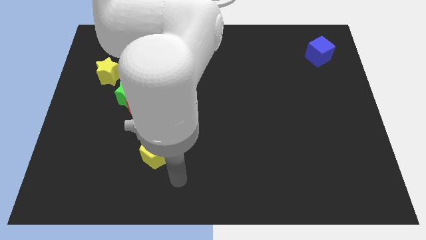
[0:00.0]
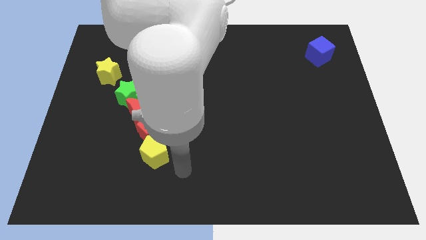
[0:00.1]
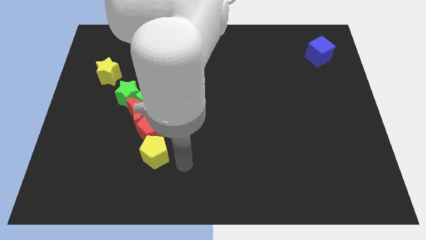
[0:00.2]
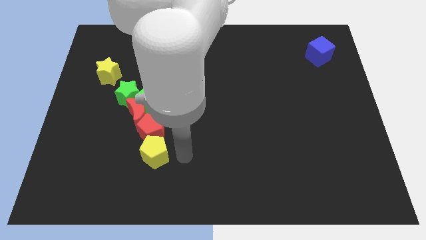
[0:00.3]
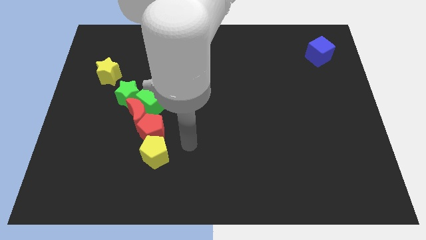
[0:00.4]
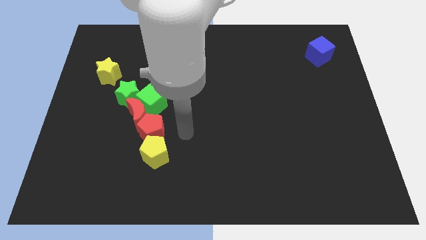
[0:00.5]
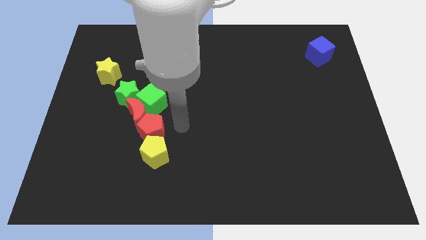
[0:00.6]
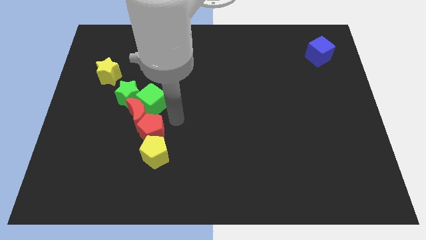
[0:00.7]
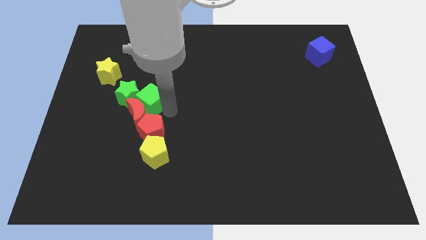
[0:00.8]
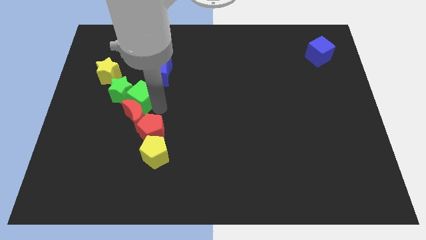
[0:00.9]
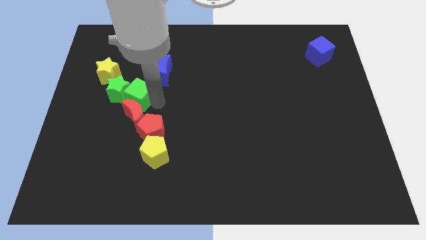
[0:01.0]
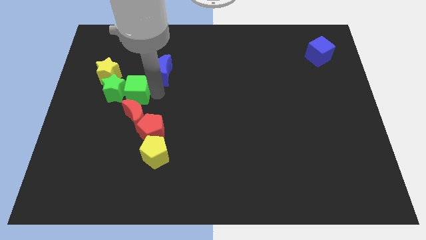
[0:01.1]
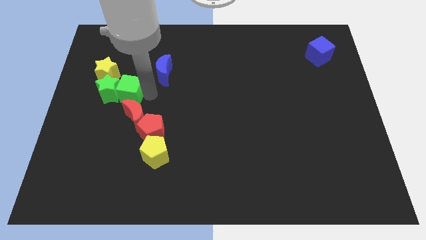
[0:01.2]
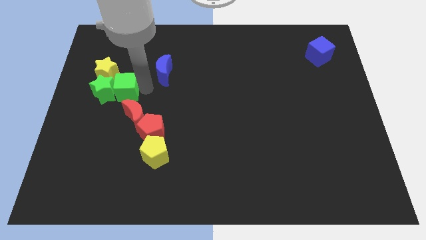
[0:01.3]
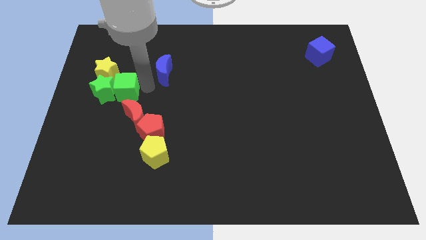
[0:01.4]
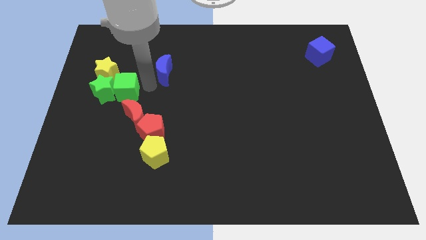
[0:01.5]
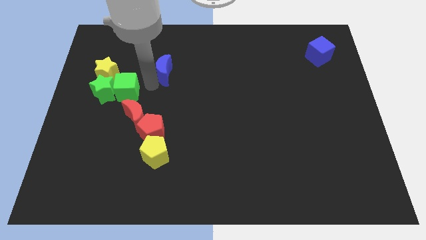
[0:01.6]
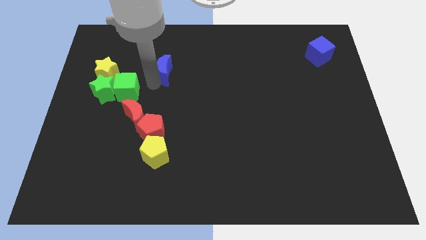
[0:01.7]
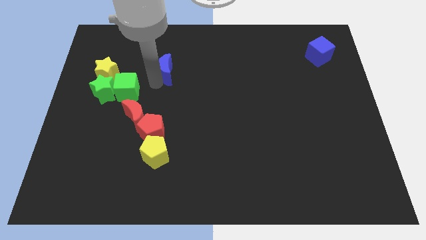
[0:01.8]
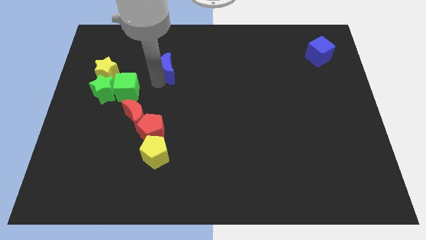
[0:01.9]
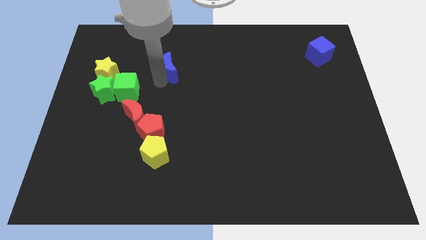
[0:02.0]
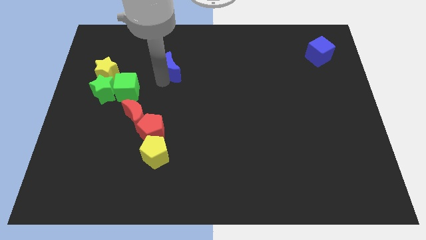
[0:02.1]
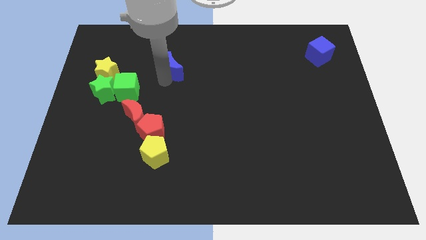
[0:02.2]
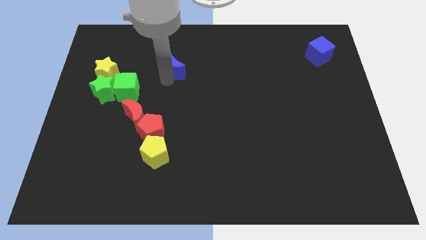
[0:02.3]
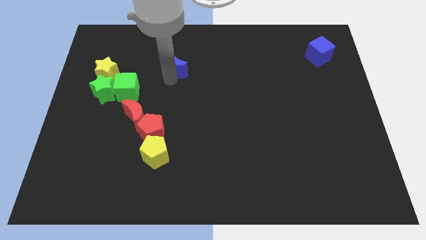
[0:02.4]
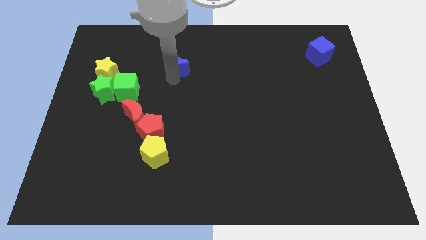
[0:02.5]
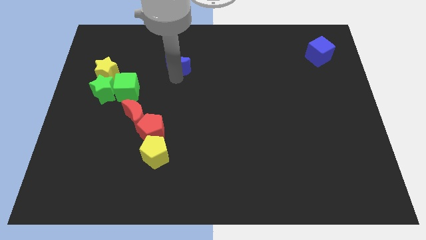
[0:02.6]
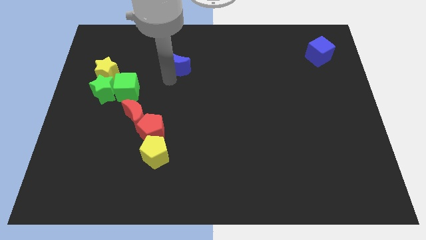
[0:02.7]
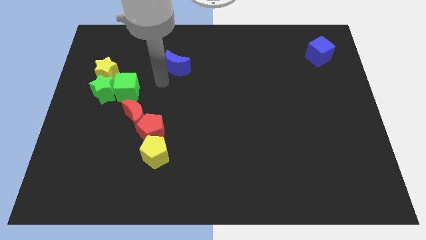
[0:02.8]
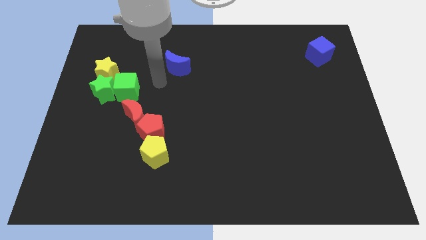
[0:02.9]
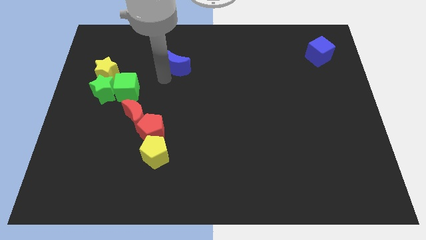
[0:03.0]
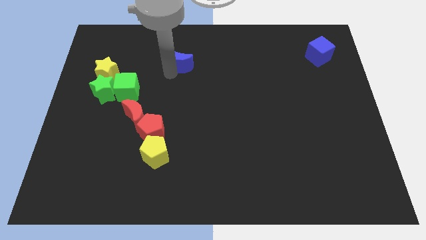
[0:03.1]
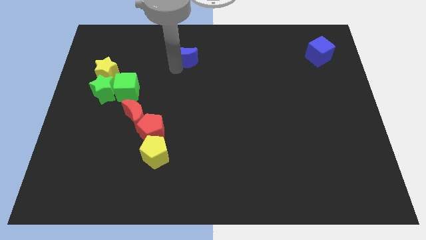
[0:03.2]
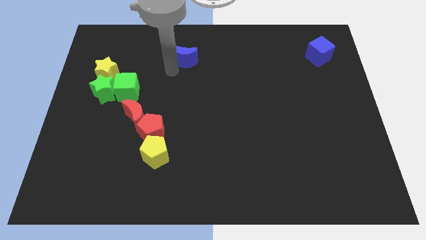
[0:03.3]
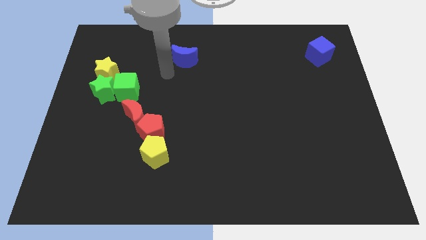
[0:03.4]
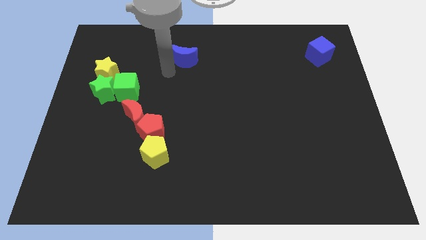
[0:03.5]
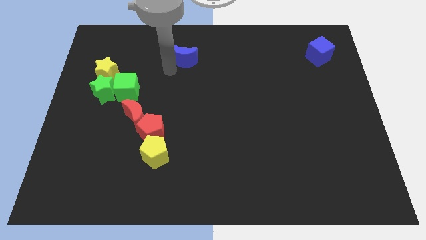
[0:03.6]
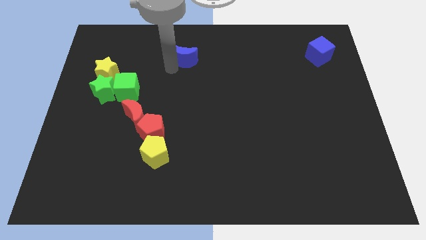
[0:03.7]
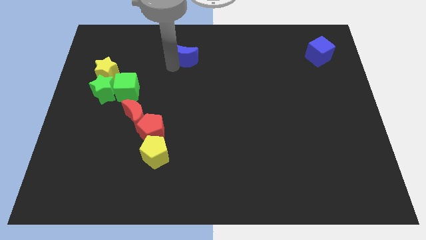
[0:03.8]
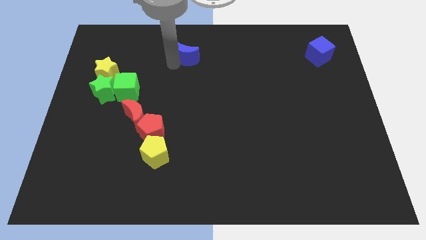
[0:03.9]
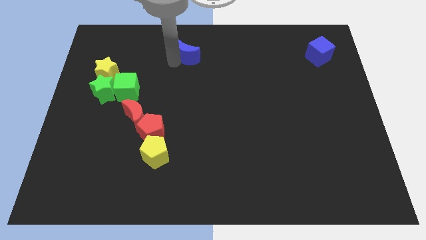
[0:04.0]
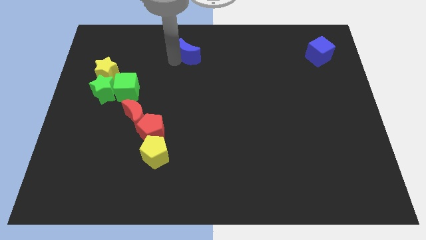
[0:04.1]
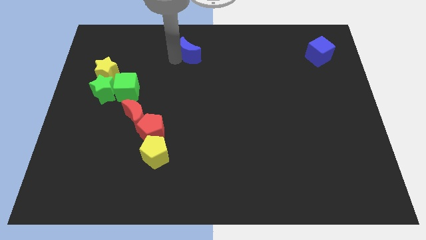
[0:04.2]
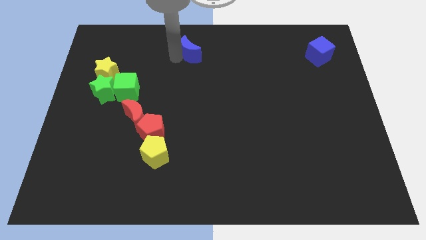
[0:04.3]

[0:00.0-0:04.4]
move the blue moon to the top side

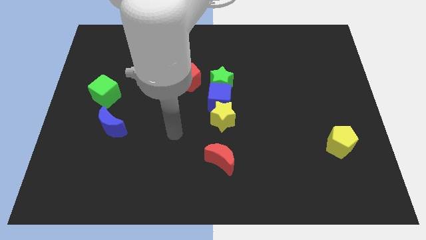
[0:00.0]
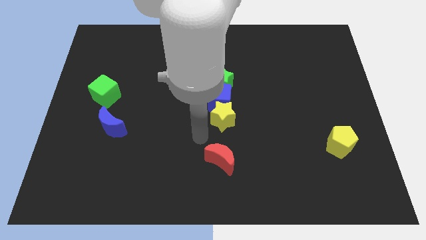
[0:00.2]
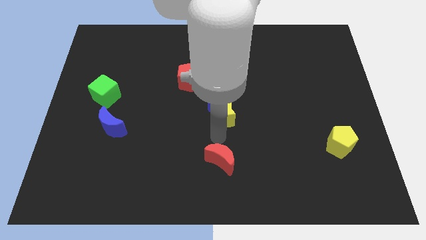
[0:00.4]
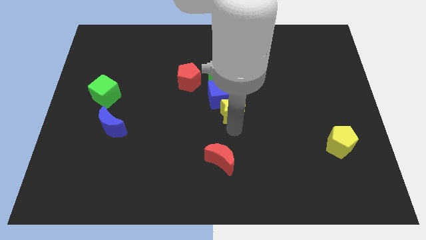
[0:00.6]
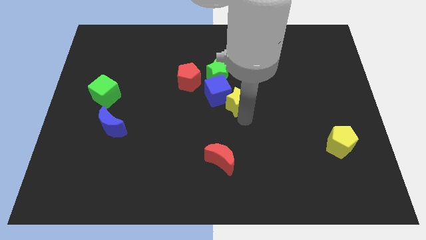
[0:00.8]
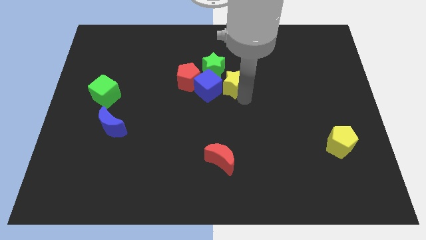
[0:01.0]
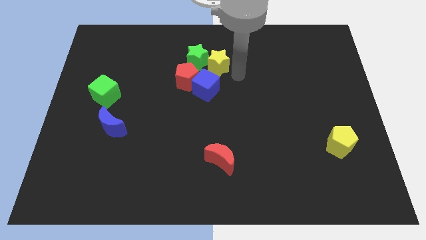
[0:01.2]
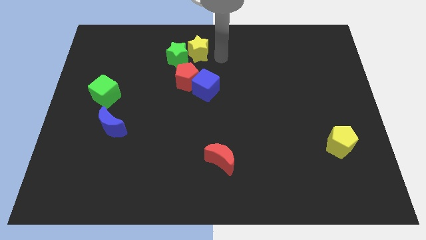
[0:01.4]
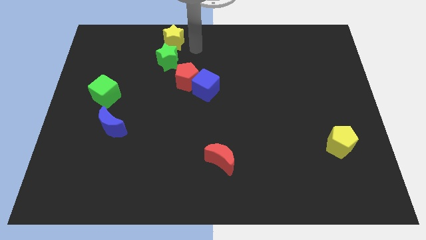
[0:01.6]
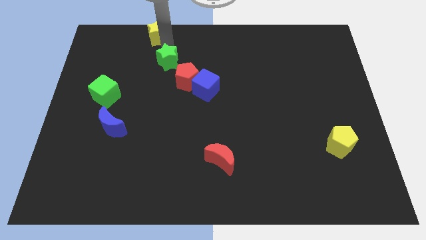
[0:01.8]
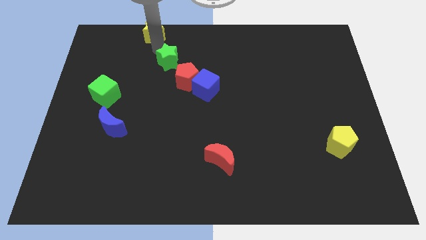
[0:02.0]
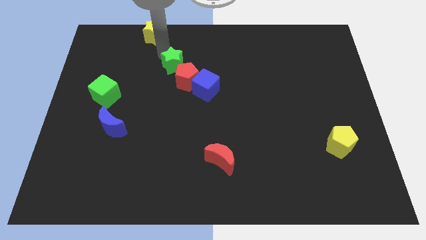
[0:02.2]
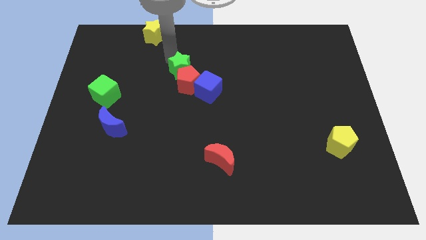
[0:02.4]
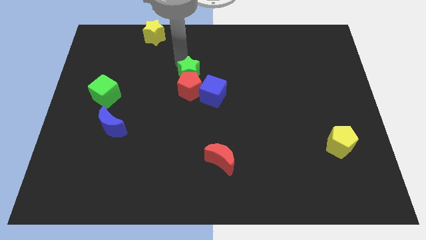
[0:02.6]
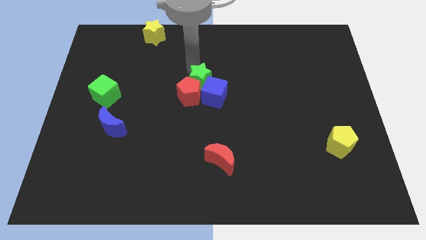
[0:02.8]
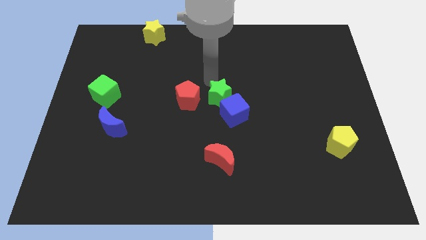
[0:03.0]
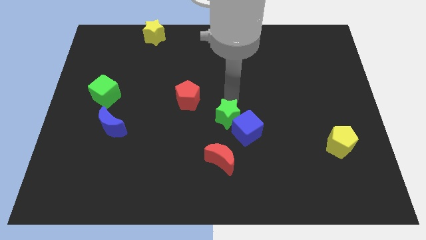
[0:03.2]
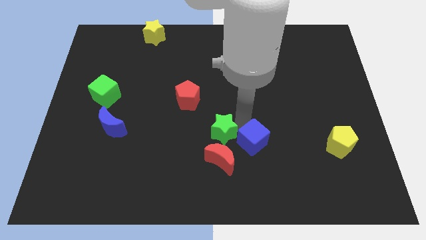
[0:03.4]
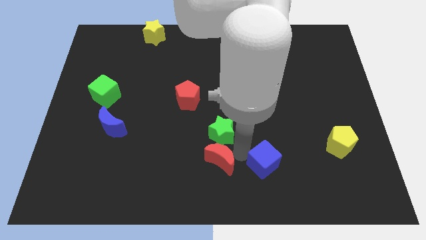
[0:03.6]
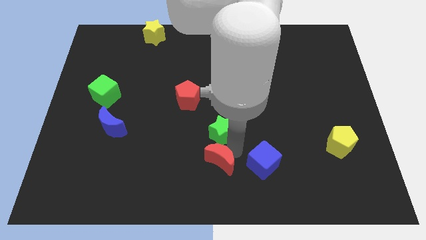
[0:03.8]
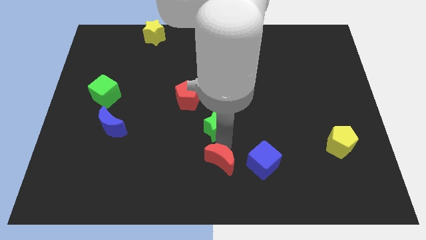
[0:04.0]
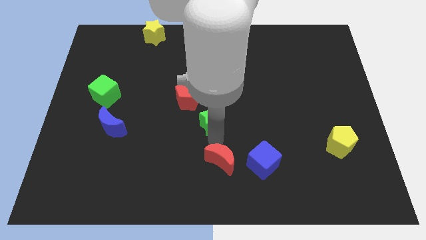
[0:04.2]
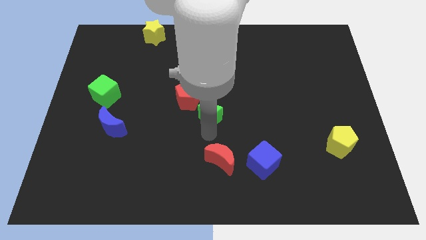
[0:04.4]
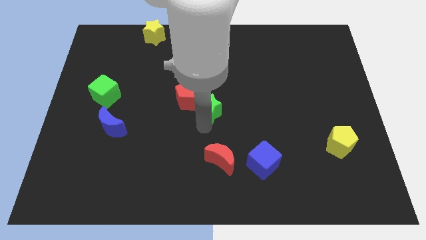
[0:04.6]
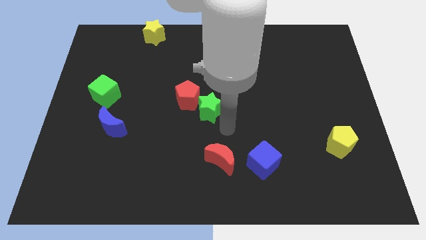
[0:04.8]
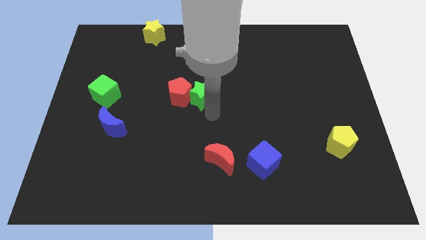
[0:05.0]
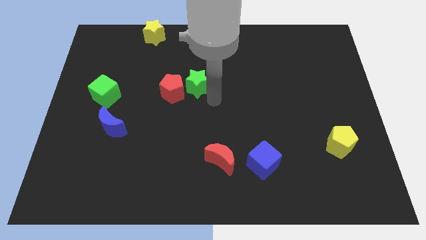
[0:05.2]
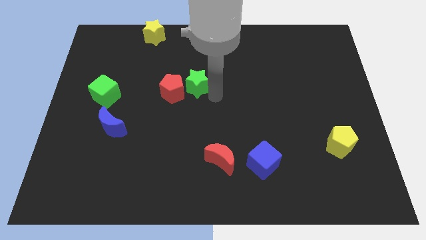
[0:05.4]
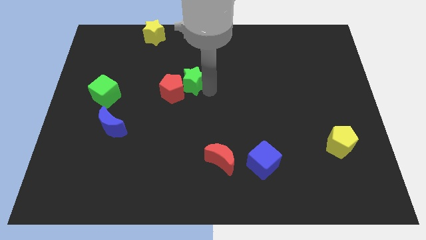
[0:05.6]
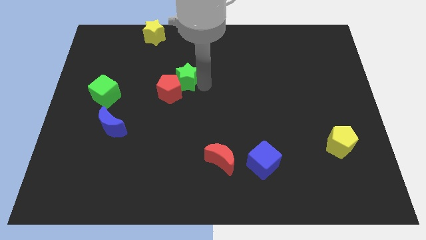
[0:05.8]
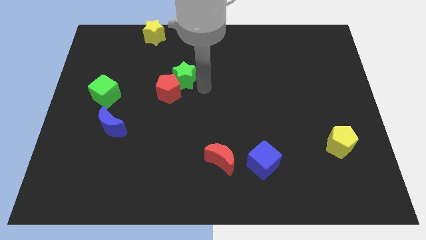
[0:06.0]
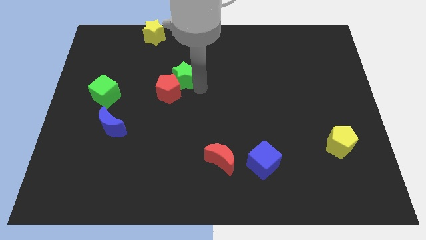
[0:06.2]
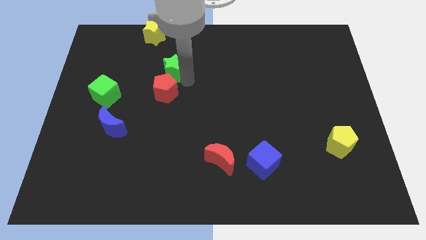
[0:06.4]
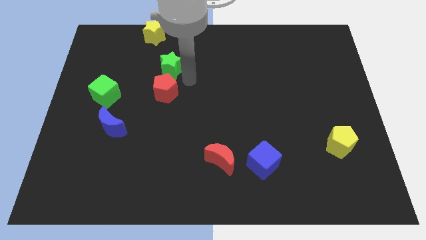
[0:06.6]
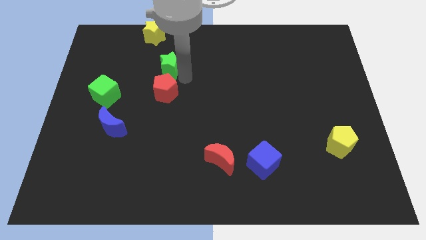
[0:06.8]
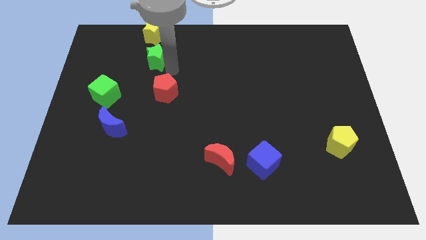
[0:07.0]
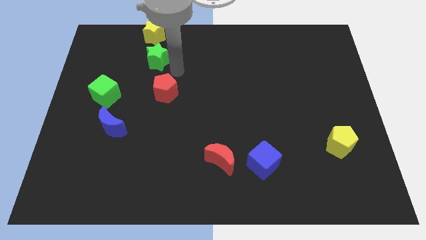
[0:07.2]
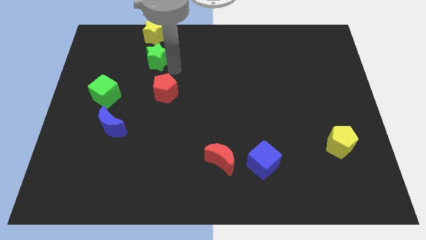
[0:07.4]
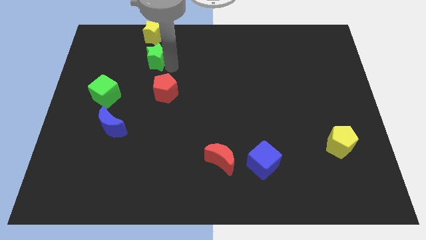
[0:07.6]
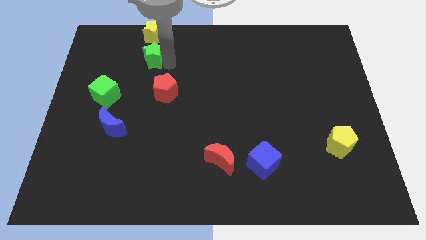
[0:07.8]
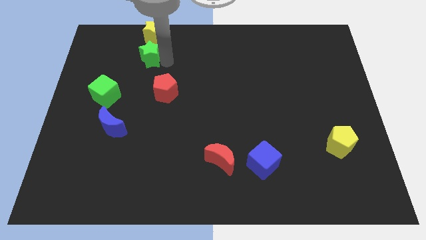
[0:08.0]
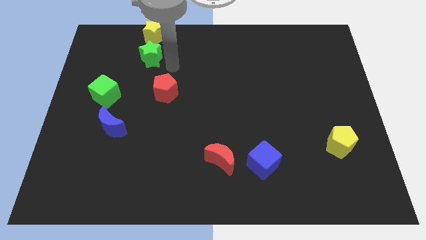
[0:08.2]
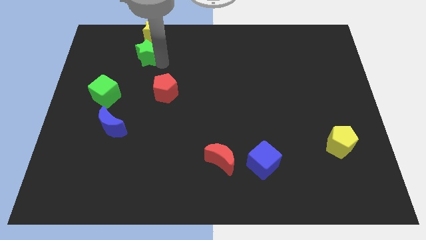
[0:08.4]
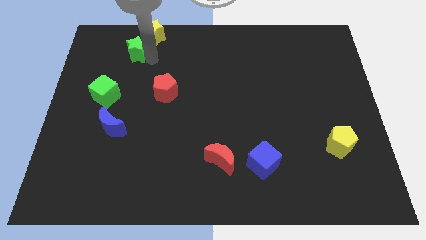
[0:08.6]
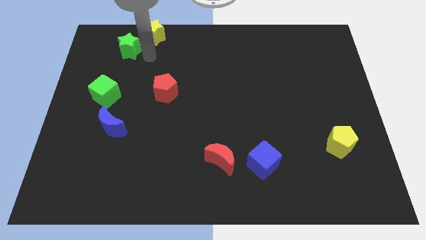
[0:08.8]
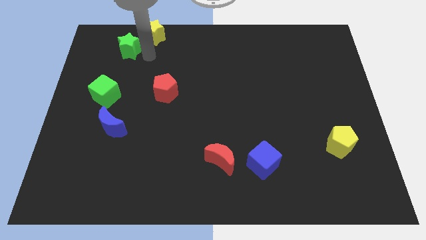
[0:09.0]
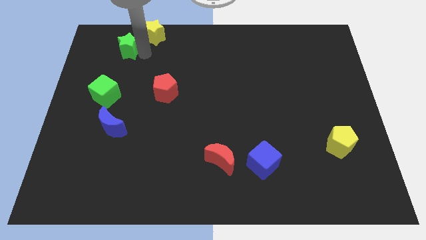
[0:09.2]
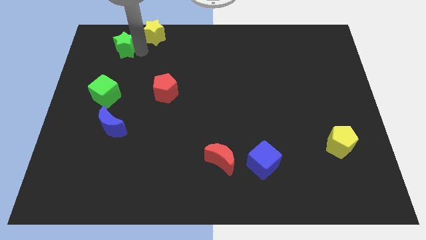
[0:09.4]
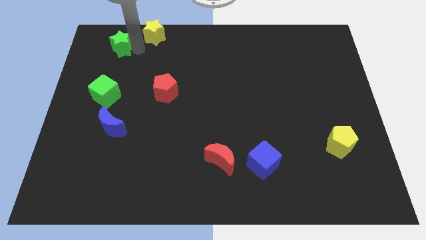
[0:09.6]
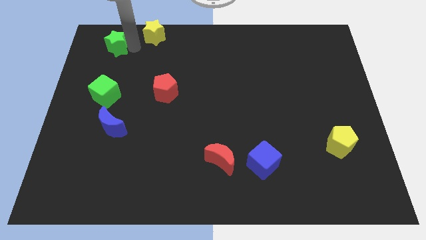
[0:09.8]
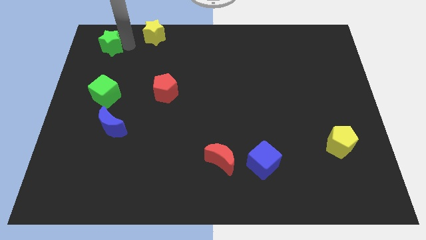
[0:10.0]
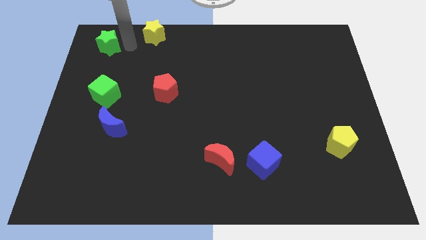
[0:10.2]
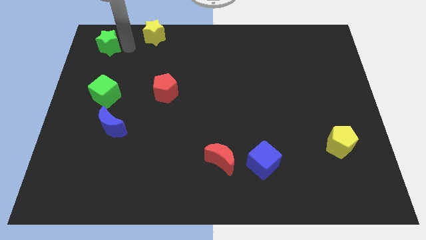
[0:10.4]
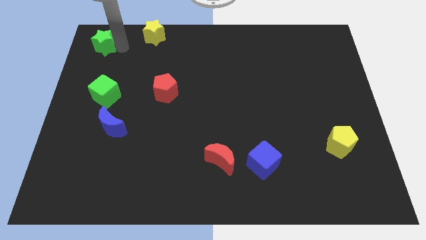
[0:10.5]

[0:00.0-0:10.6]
move the green star to the top left of the board
